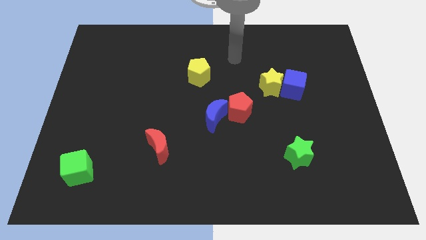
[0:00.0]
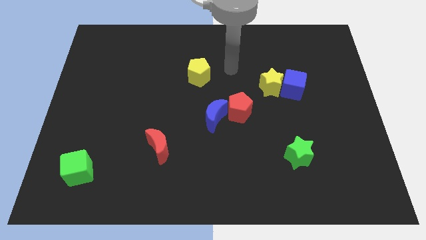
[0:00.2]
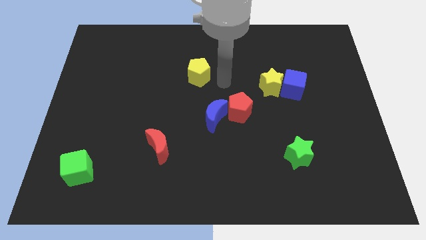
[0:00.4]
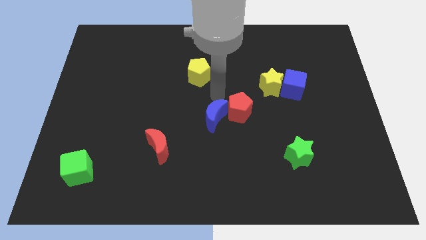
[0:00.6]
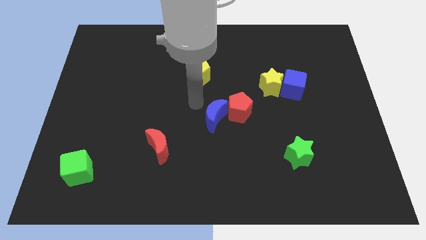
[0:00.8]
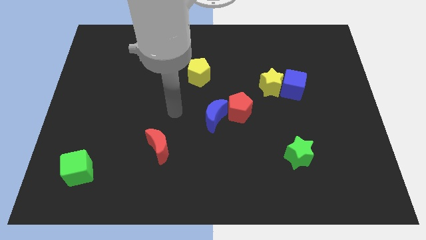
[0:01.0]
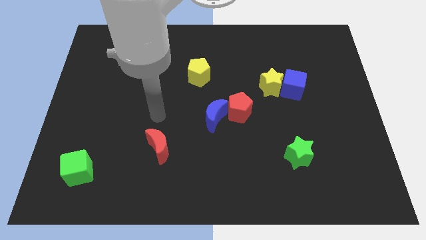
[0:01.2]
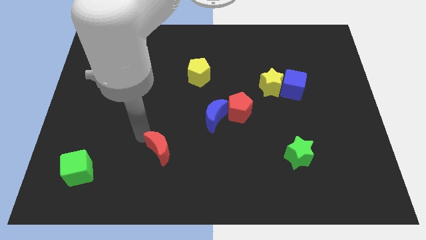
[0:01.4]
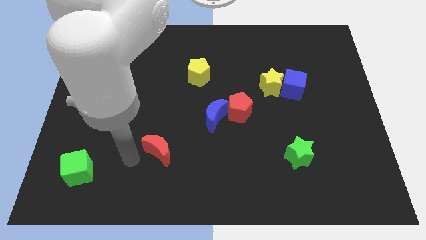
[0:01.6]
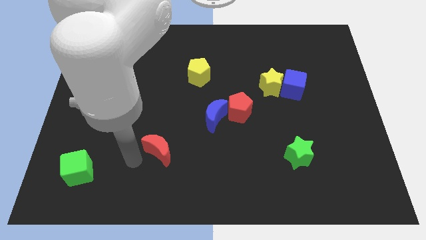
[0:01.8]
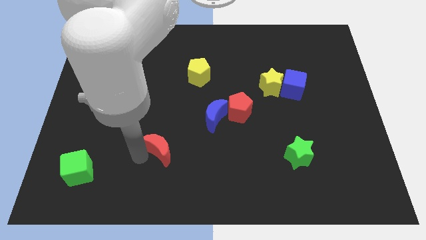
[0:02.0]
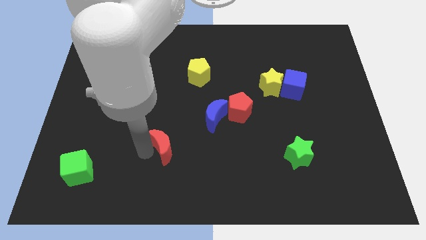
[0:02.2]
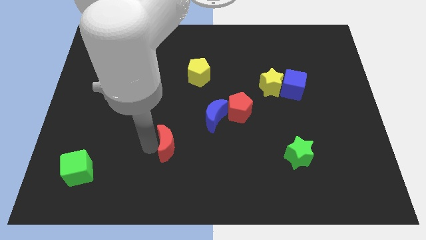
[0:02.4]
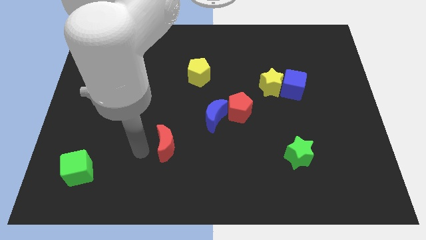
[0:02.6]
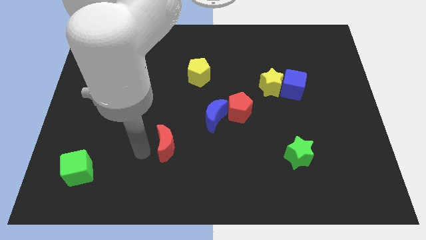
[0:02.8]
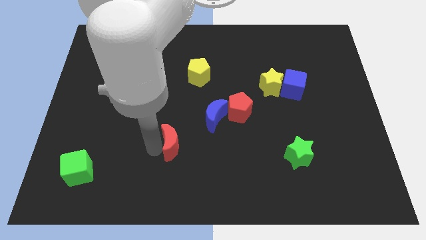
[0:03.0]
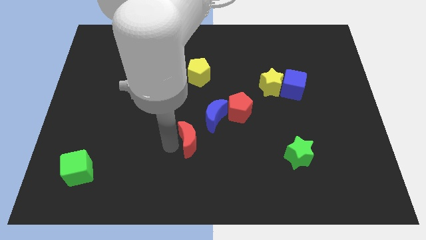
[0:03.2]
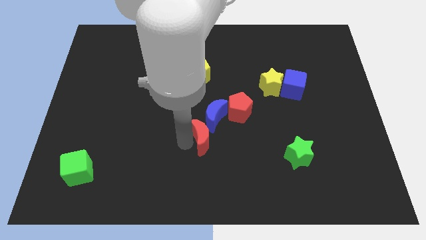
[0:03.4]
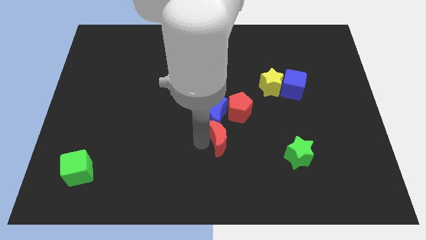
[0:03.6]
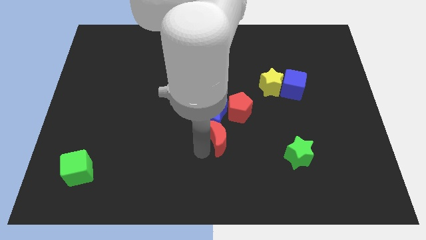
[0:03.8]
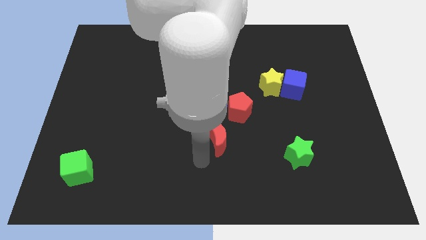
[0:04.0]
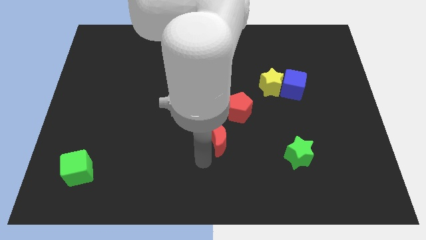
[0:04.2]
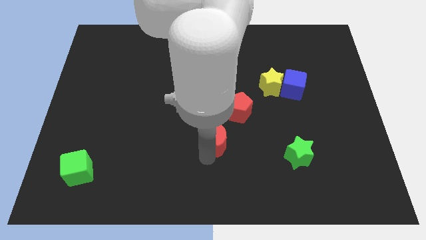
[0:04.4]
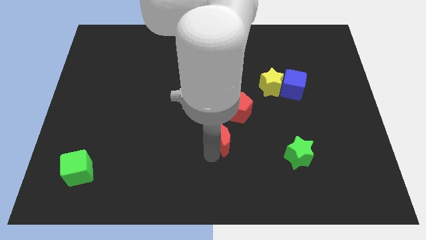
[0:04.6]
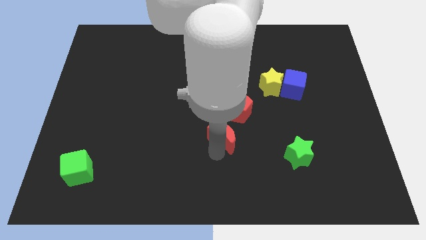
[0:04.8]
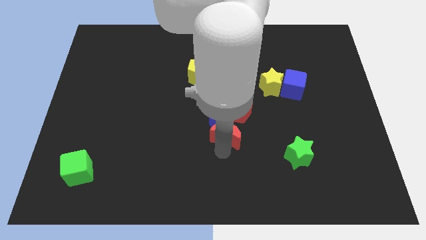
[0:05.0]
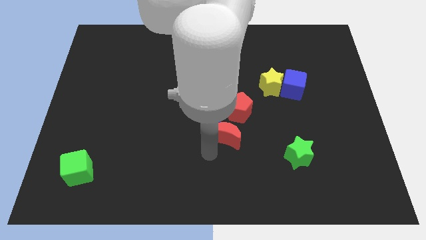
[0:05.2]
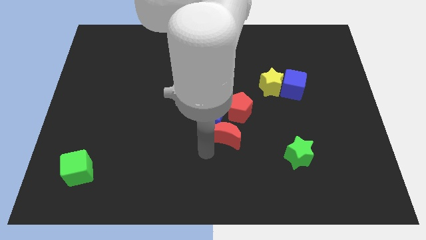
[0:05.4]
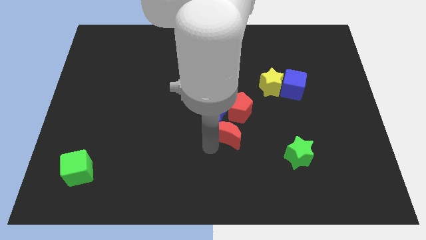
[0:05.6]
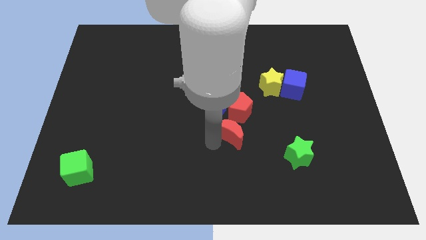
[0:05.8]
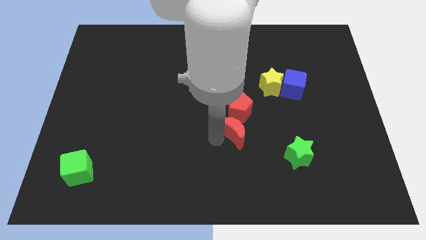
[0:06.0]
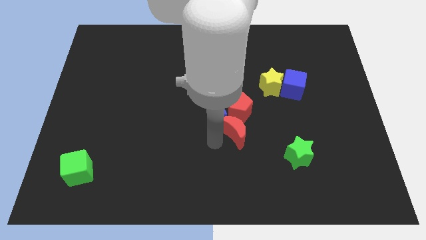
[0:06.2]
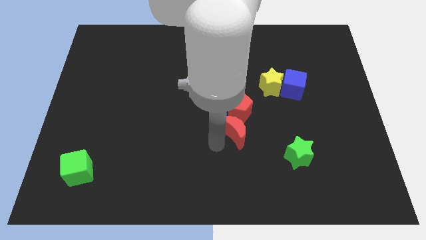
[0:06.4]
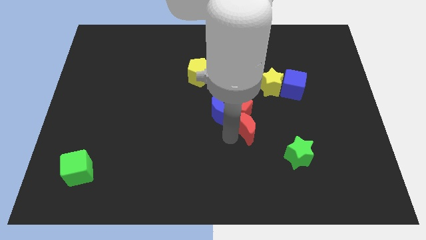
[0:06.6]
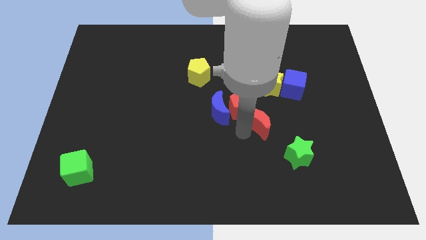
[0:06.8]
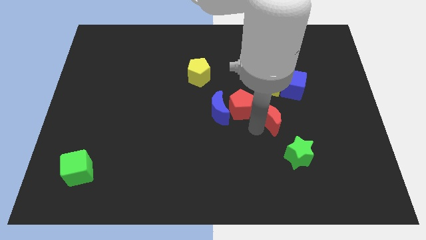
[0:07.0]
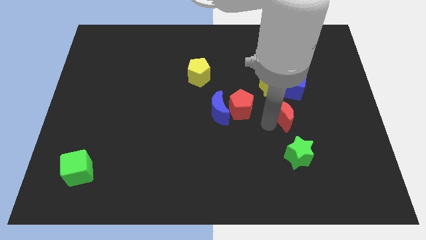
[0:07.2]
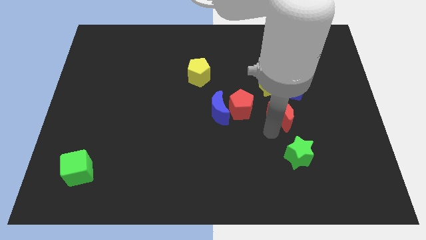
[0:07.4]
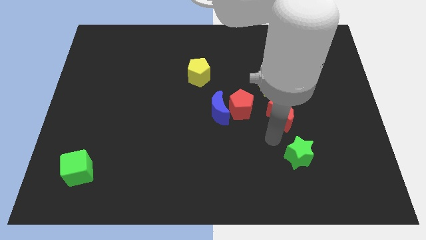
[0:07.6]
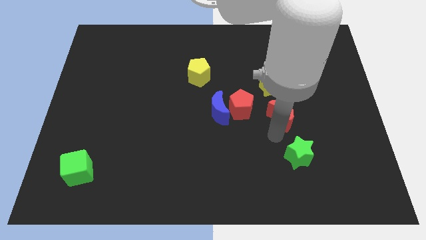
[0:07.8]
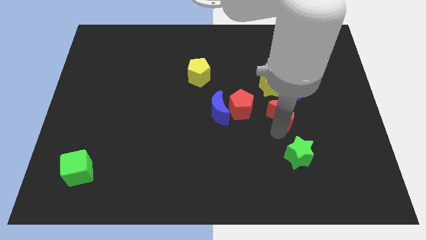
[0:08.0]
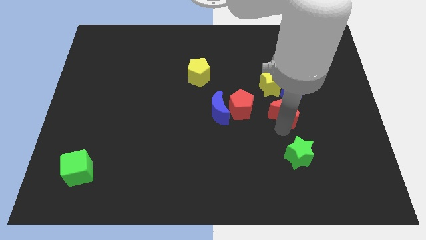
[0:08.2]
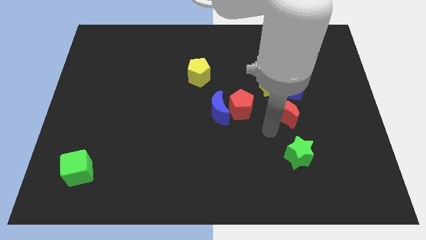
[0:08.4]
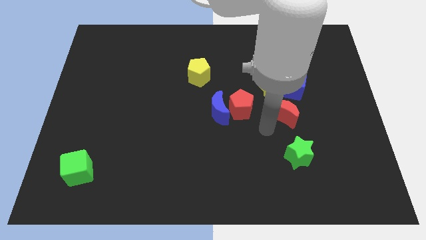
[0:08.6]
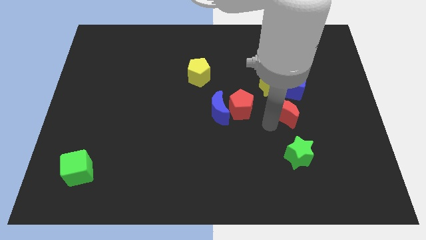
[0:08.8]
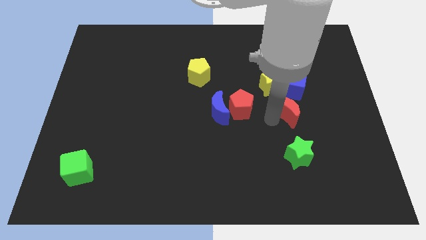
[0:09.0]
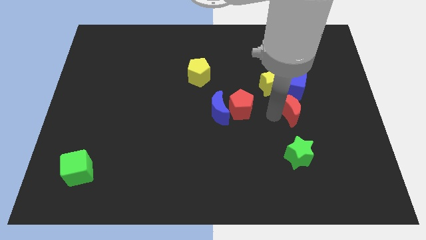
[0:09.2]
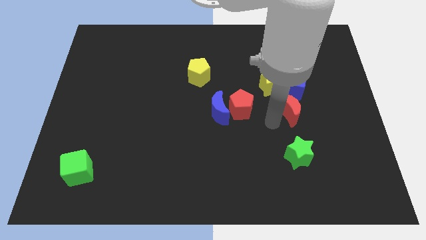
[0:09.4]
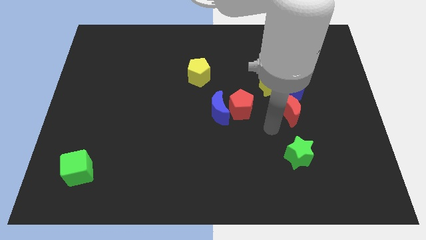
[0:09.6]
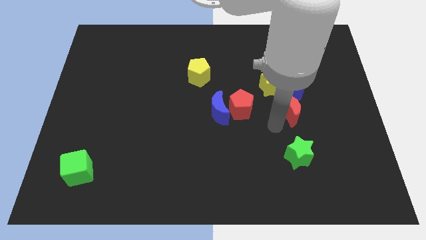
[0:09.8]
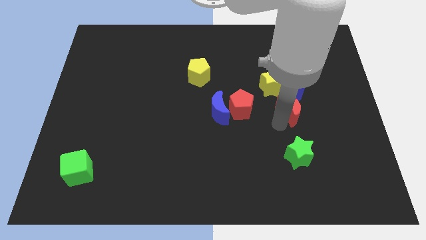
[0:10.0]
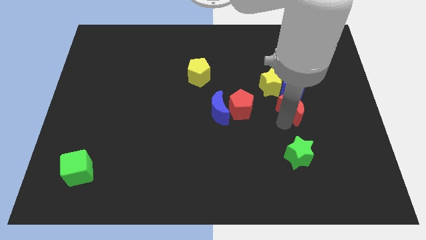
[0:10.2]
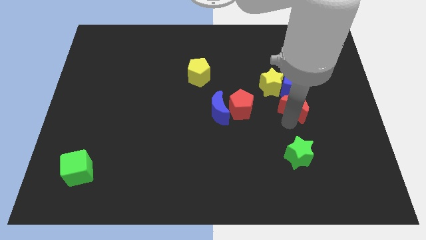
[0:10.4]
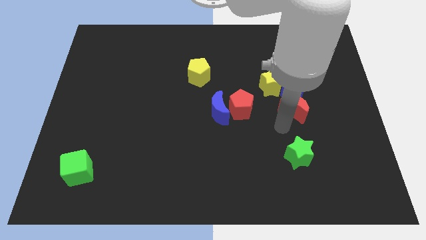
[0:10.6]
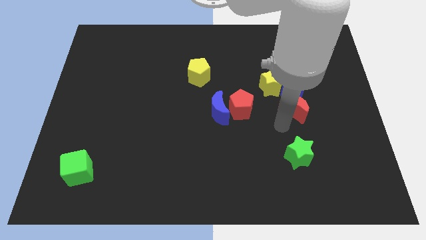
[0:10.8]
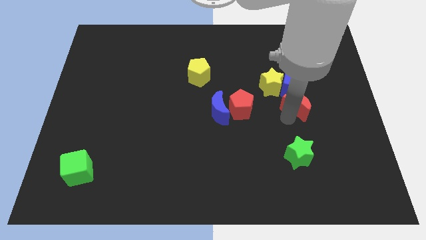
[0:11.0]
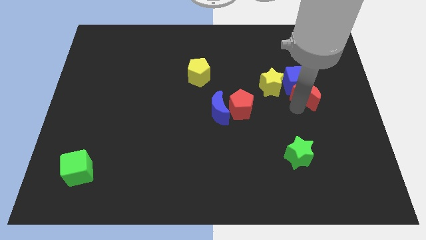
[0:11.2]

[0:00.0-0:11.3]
push the red moon just right of the yellow star
